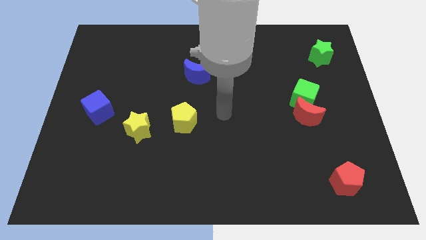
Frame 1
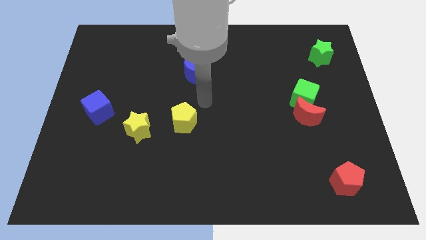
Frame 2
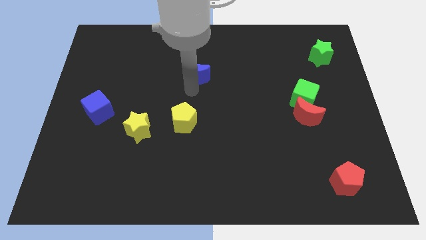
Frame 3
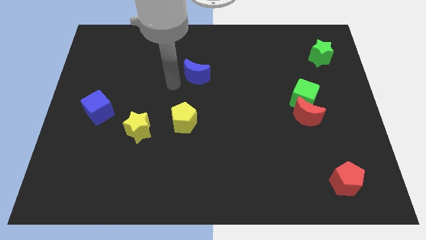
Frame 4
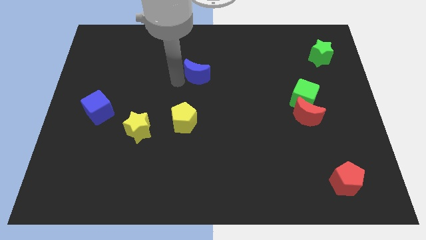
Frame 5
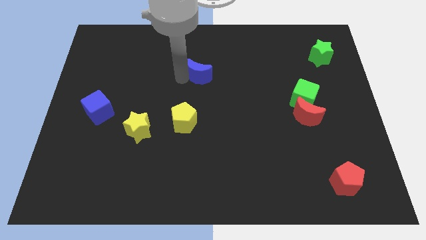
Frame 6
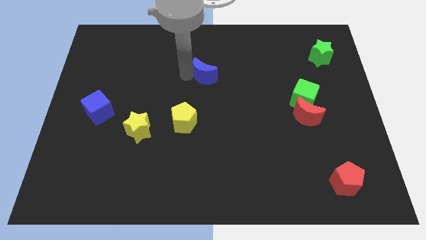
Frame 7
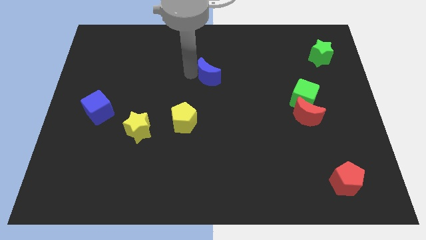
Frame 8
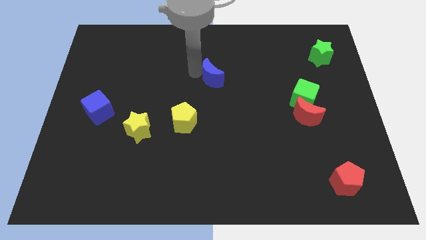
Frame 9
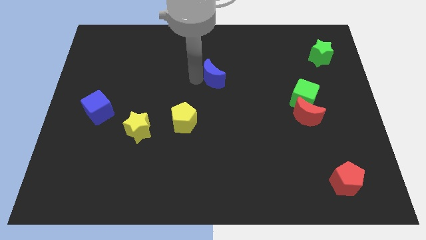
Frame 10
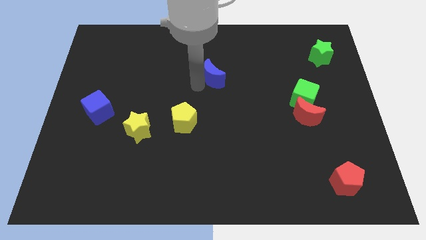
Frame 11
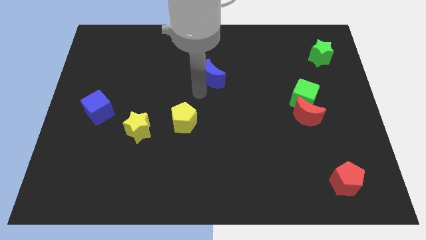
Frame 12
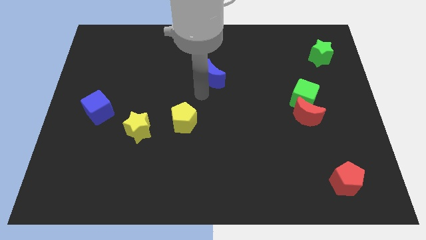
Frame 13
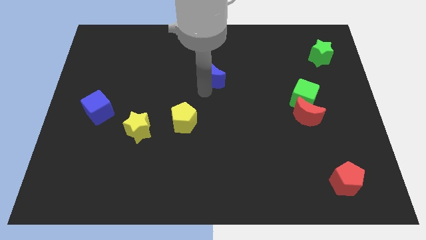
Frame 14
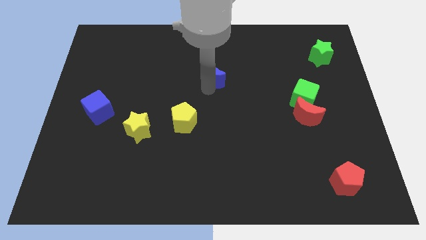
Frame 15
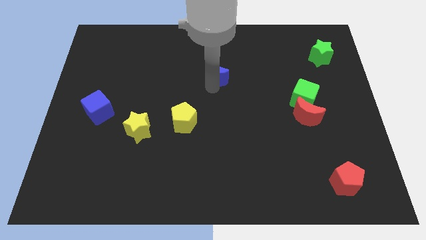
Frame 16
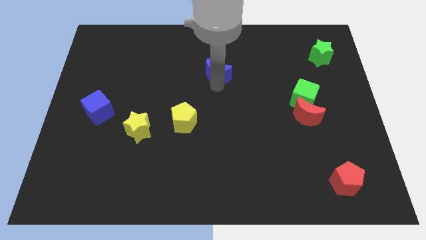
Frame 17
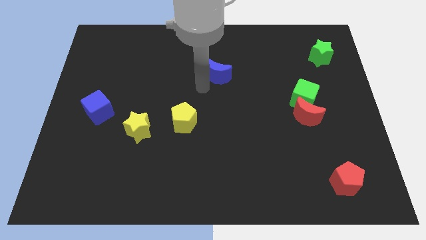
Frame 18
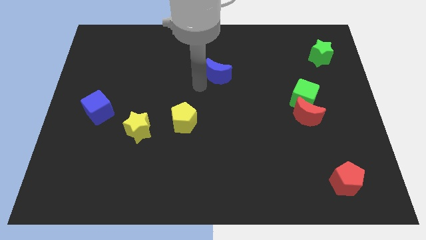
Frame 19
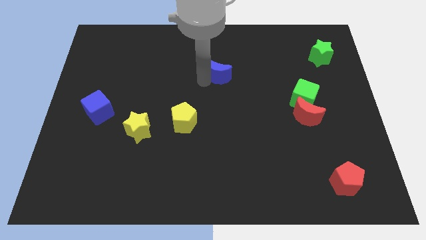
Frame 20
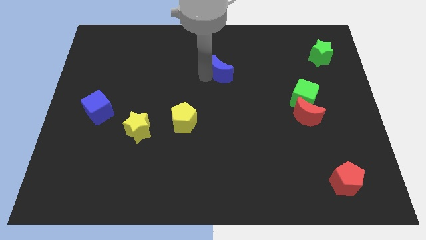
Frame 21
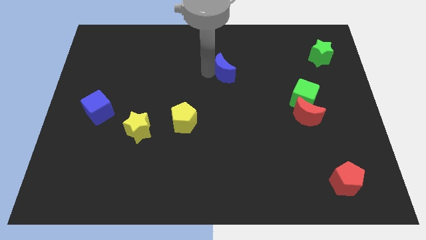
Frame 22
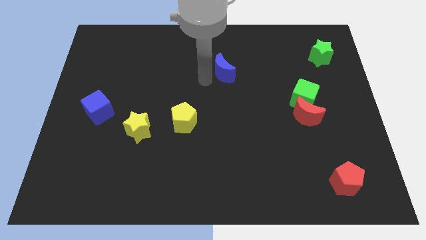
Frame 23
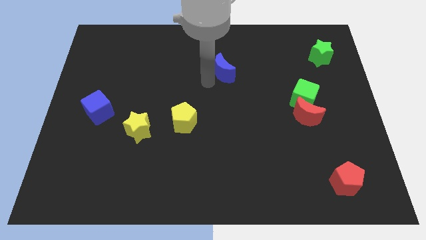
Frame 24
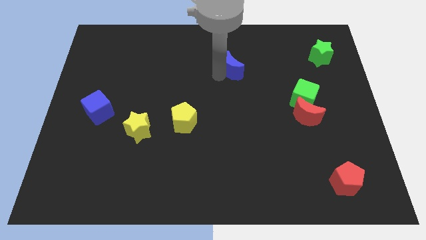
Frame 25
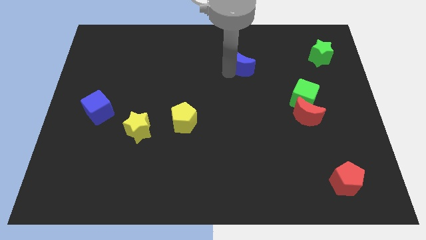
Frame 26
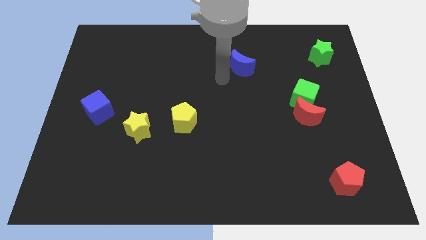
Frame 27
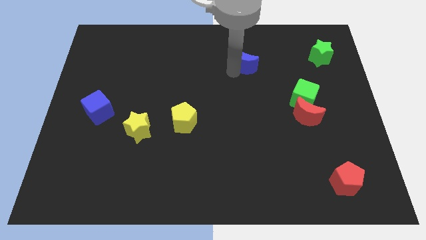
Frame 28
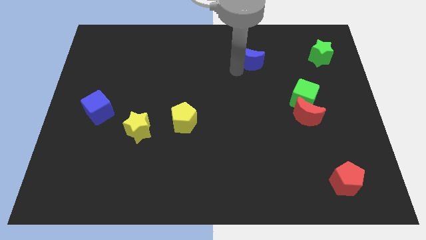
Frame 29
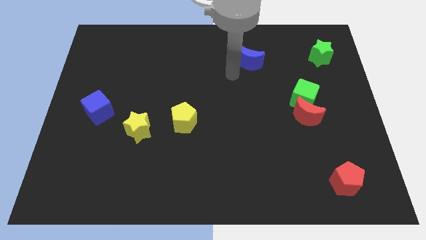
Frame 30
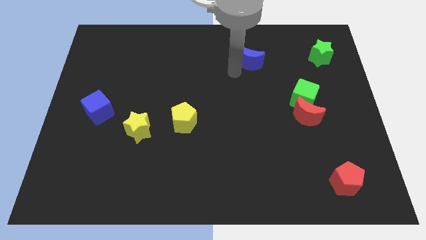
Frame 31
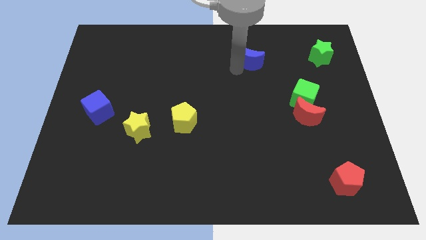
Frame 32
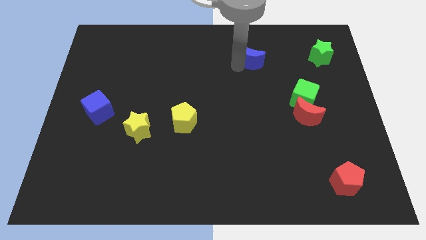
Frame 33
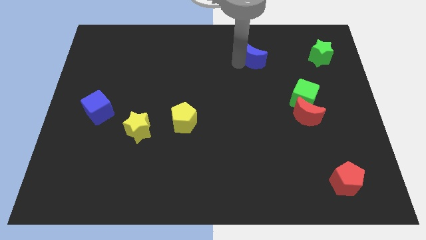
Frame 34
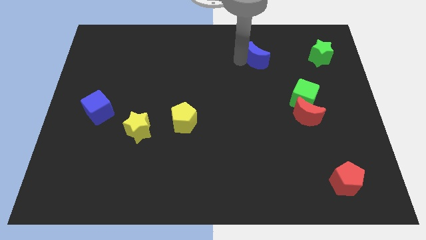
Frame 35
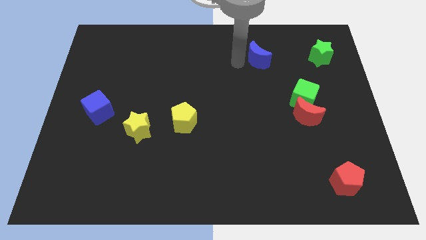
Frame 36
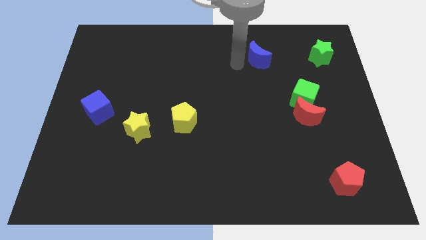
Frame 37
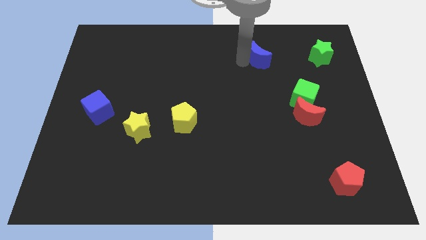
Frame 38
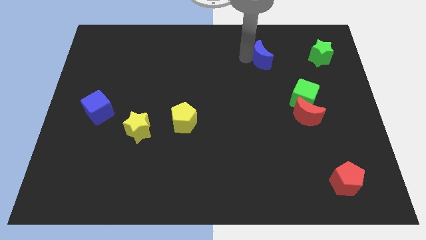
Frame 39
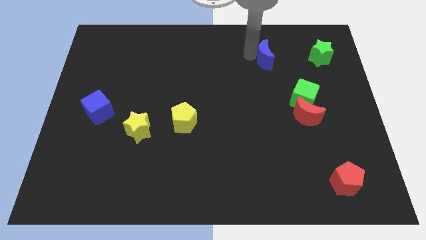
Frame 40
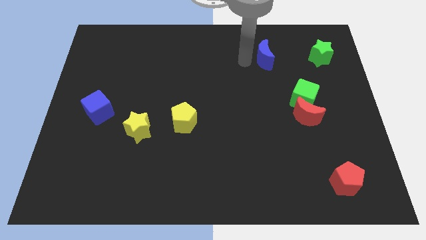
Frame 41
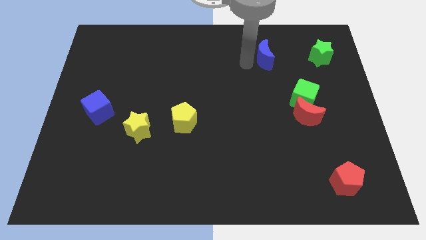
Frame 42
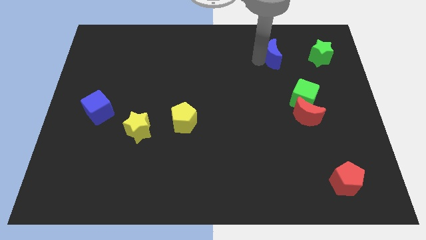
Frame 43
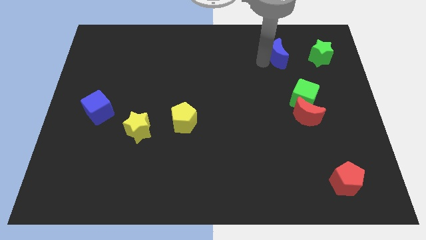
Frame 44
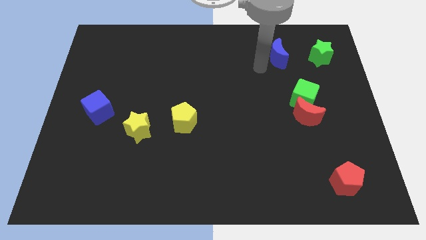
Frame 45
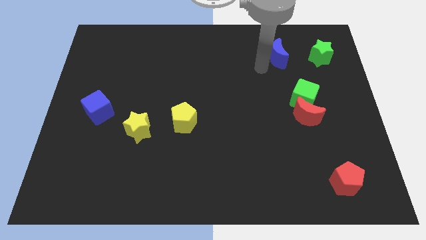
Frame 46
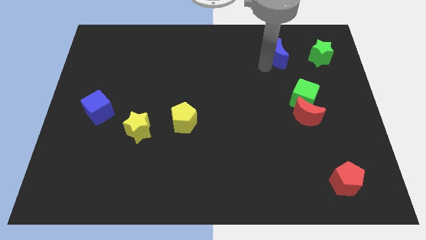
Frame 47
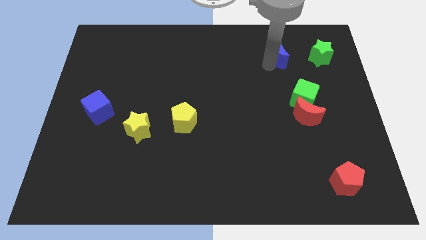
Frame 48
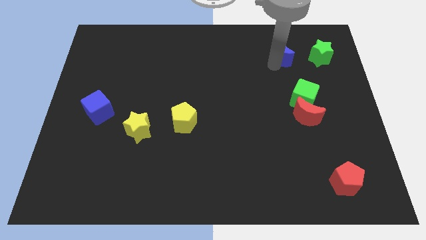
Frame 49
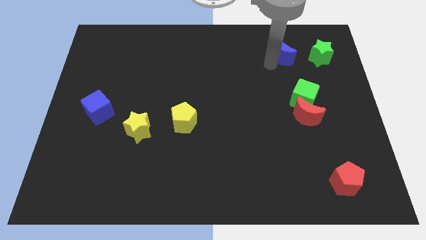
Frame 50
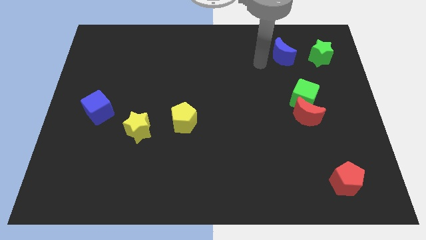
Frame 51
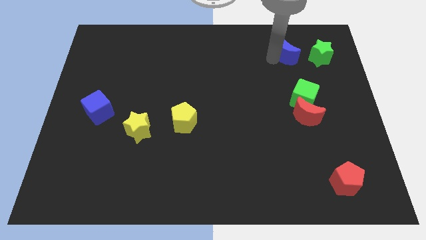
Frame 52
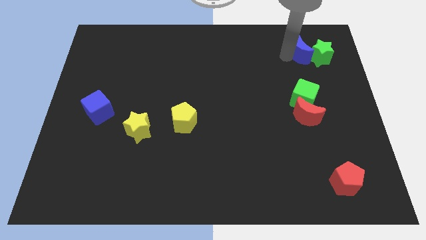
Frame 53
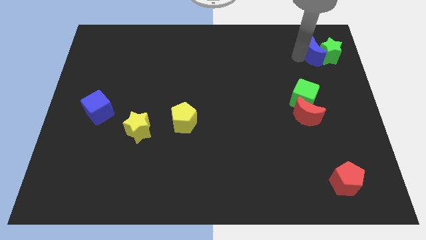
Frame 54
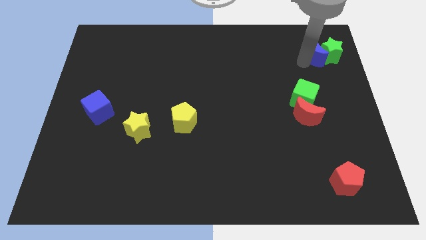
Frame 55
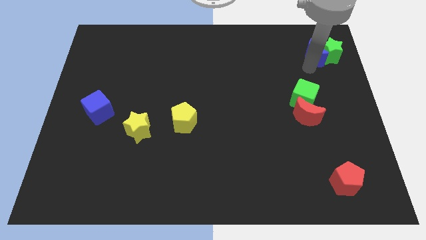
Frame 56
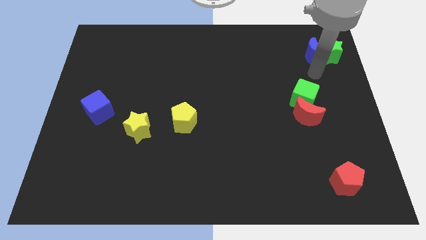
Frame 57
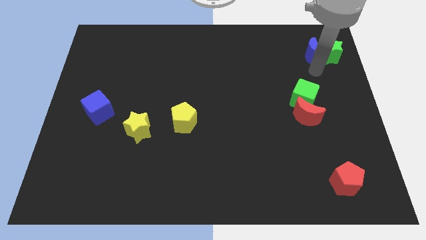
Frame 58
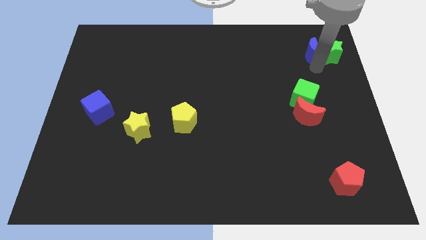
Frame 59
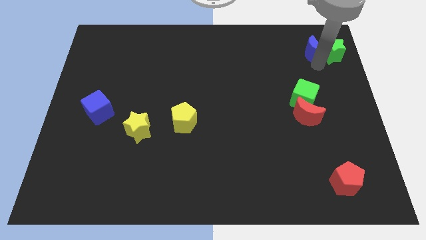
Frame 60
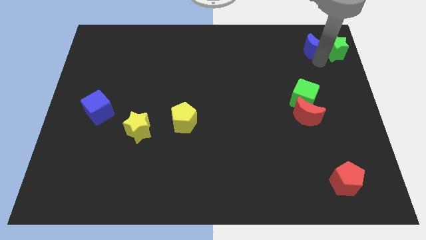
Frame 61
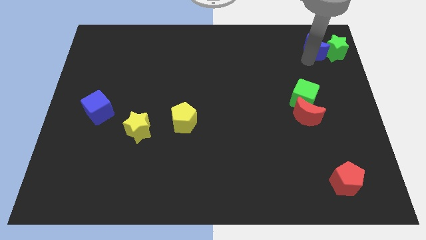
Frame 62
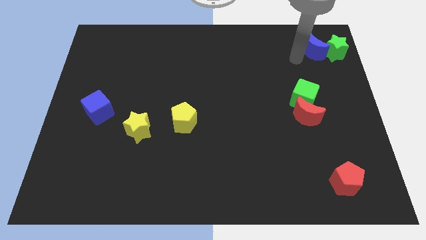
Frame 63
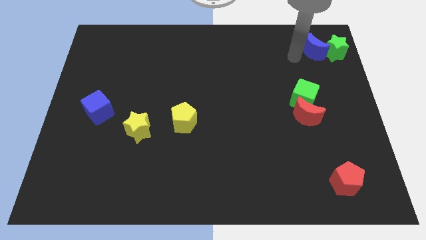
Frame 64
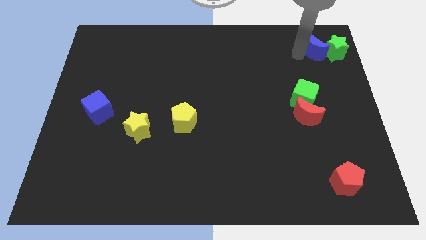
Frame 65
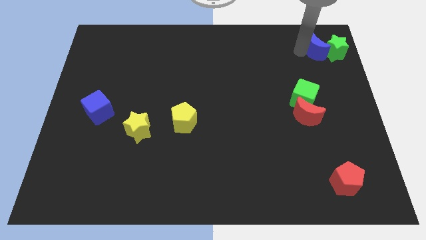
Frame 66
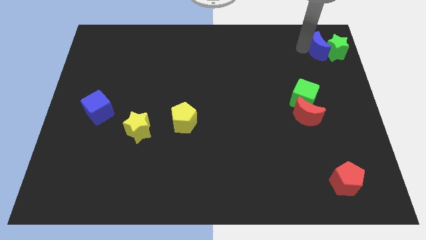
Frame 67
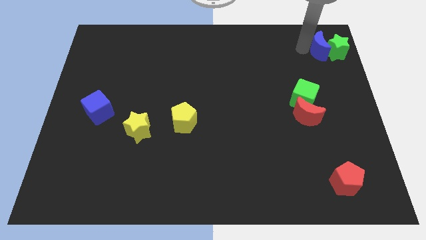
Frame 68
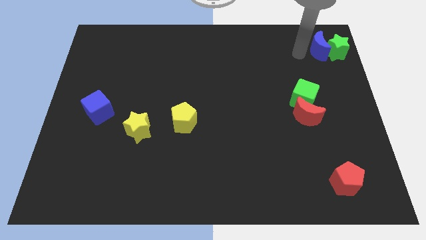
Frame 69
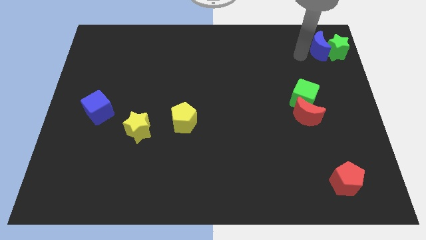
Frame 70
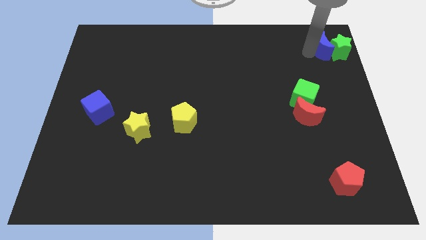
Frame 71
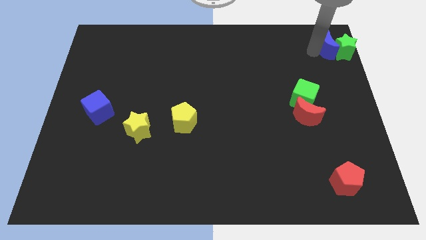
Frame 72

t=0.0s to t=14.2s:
move the blue moon to the top right
